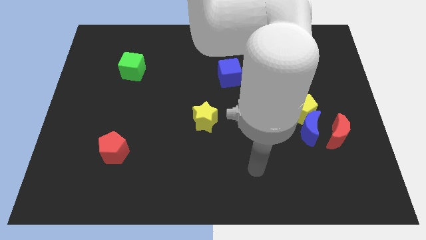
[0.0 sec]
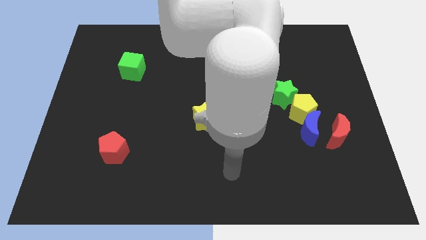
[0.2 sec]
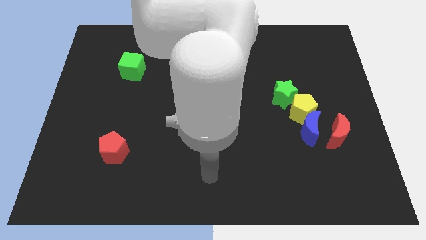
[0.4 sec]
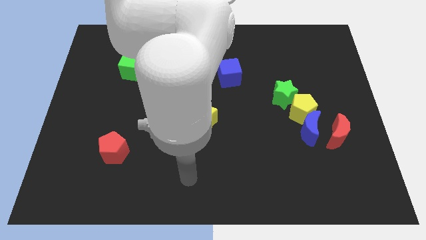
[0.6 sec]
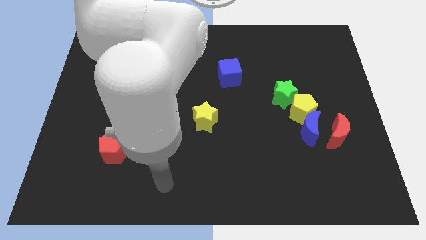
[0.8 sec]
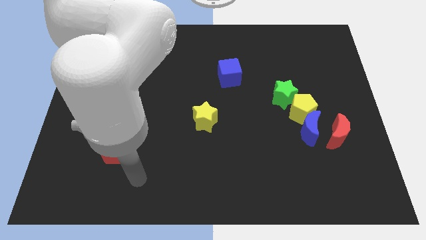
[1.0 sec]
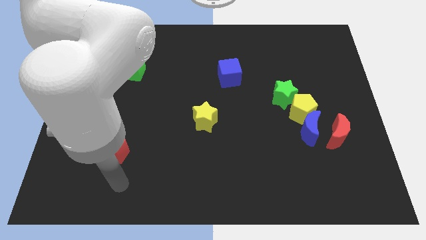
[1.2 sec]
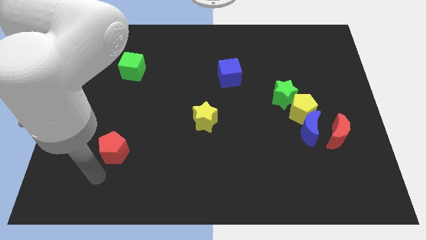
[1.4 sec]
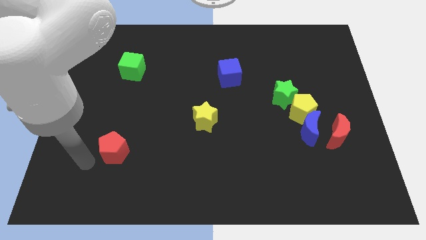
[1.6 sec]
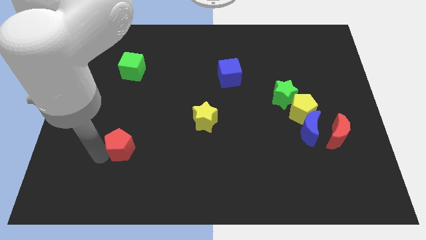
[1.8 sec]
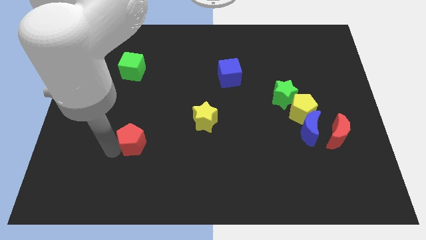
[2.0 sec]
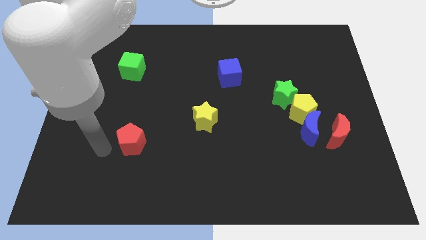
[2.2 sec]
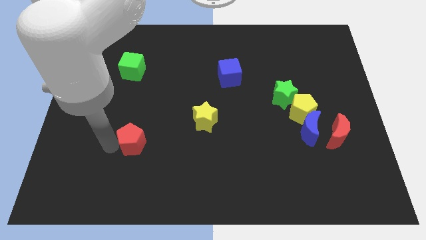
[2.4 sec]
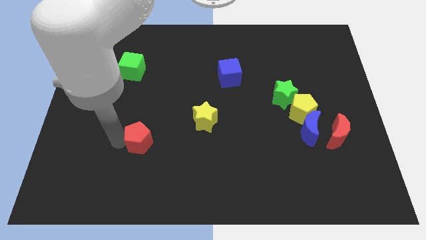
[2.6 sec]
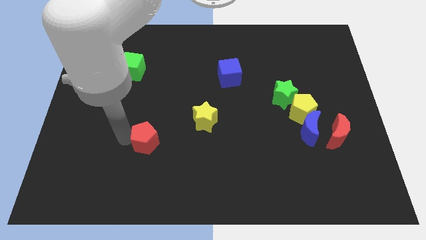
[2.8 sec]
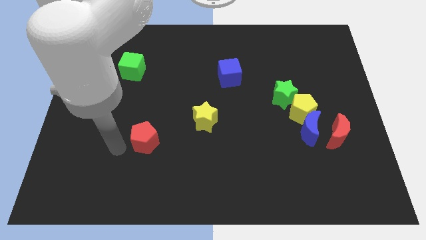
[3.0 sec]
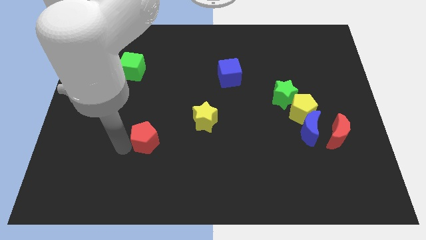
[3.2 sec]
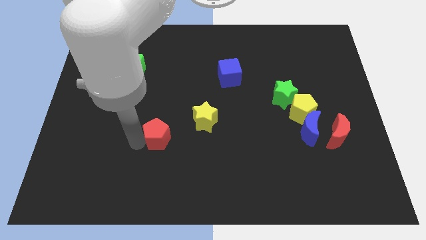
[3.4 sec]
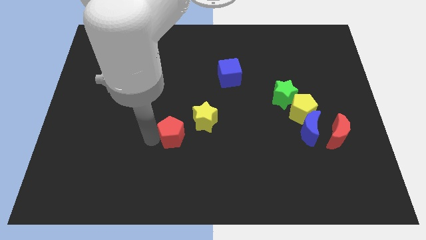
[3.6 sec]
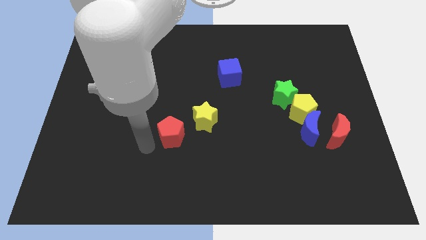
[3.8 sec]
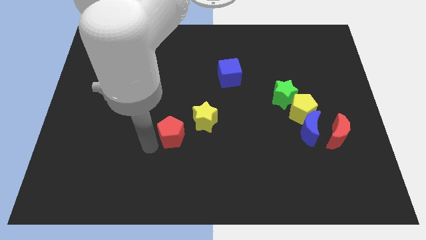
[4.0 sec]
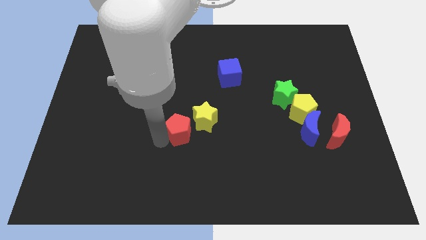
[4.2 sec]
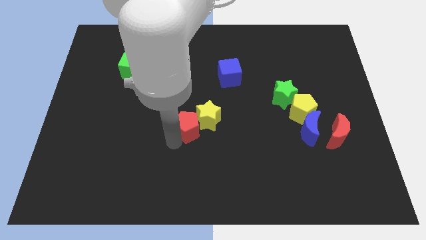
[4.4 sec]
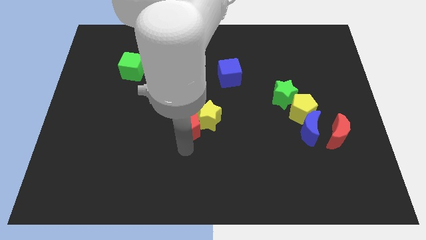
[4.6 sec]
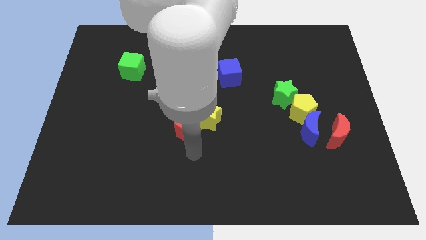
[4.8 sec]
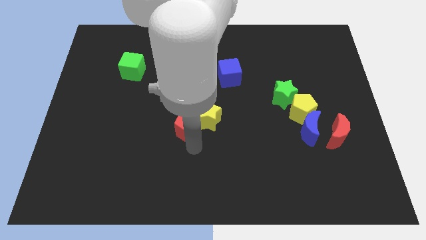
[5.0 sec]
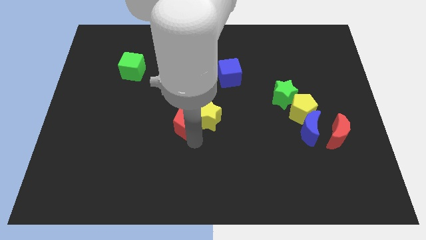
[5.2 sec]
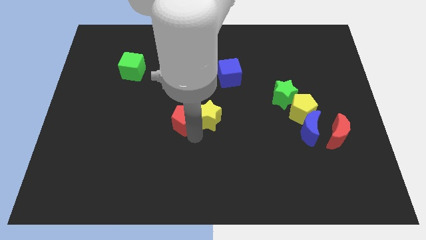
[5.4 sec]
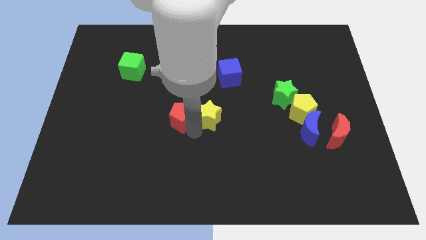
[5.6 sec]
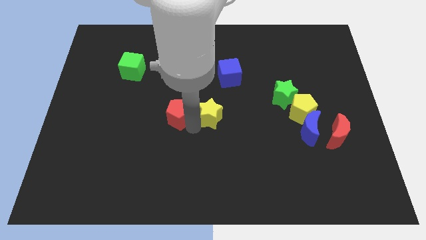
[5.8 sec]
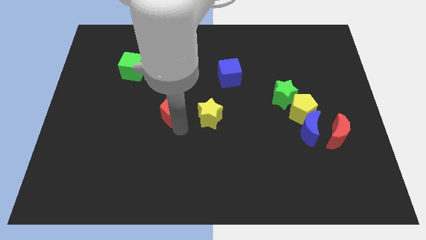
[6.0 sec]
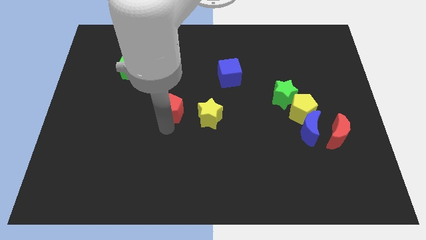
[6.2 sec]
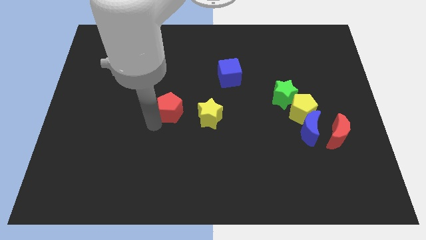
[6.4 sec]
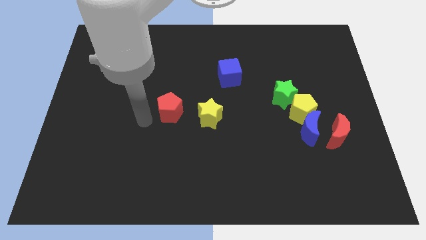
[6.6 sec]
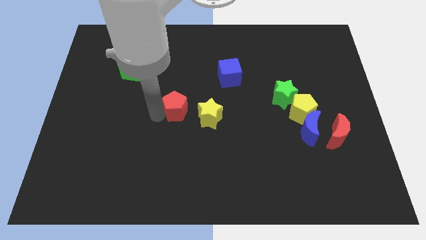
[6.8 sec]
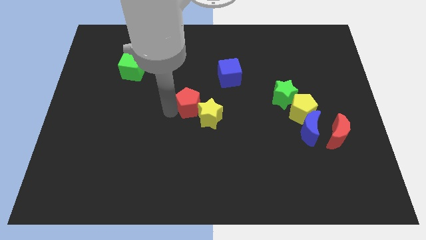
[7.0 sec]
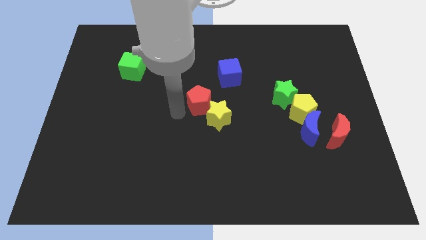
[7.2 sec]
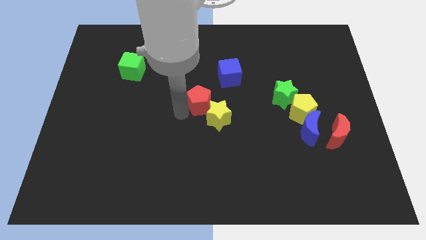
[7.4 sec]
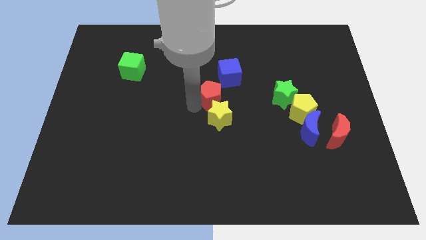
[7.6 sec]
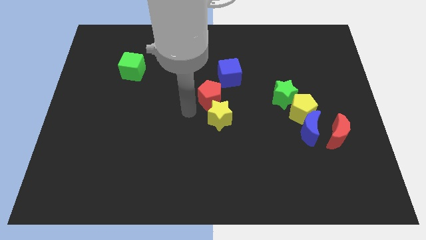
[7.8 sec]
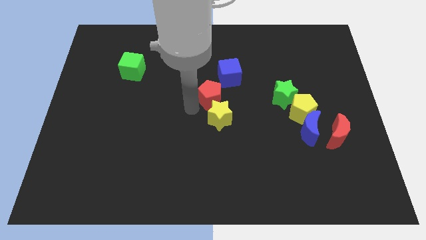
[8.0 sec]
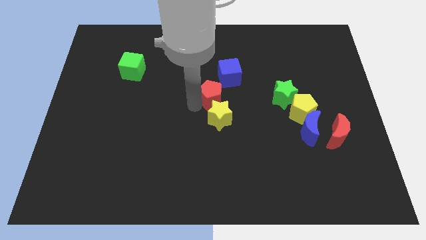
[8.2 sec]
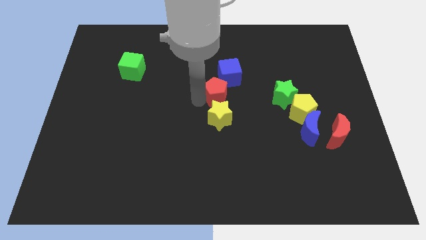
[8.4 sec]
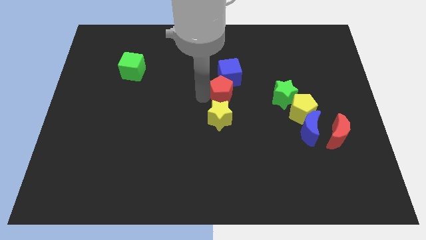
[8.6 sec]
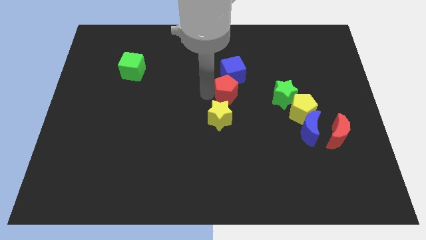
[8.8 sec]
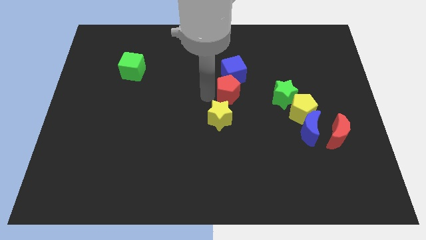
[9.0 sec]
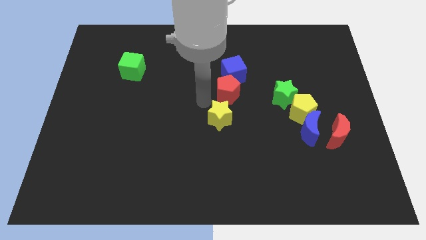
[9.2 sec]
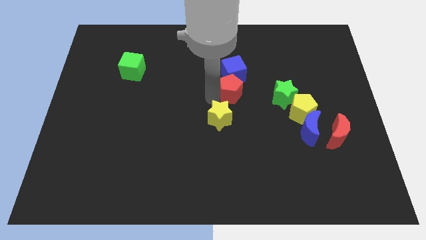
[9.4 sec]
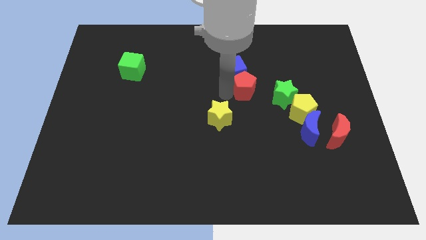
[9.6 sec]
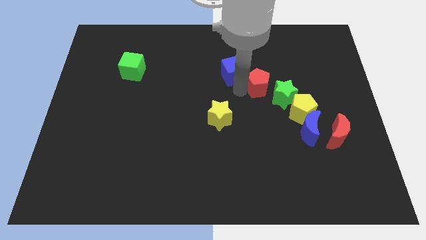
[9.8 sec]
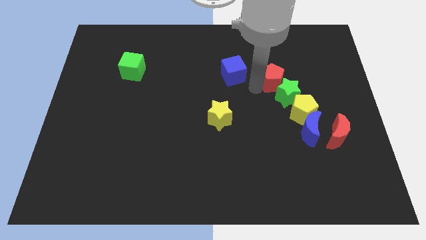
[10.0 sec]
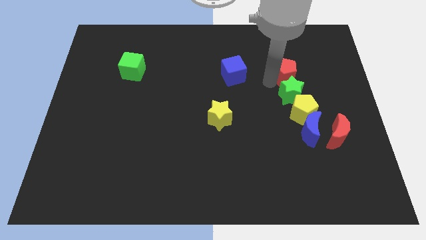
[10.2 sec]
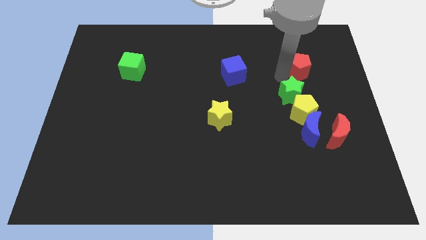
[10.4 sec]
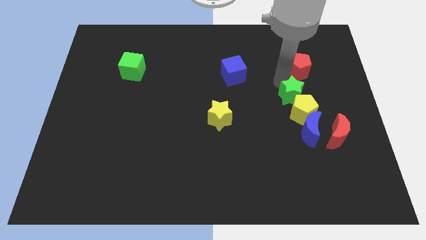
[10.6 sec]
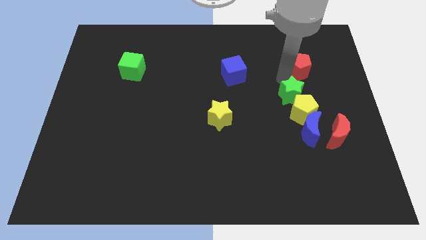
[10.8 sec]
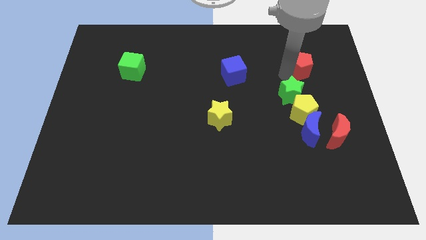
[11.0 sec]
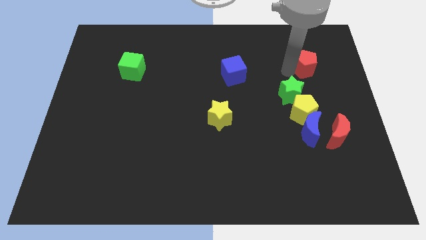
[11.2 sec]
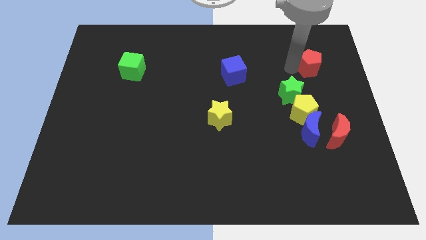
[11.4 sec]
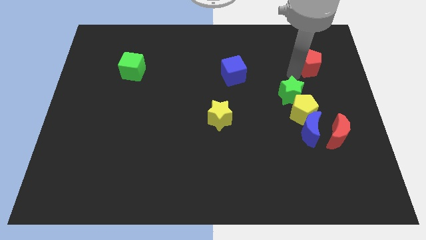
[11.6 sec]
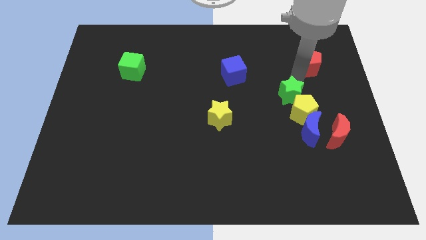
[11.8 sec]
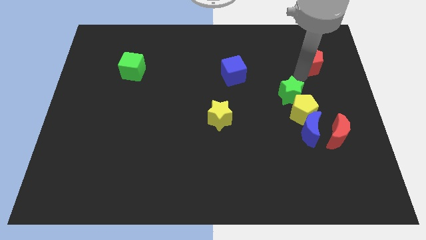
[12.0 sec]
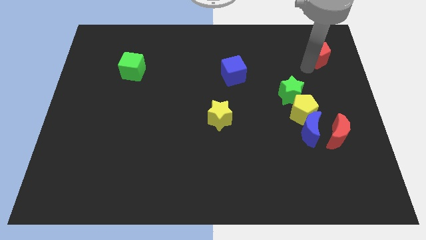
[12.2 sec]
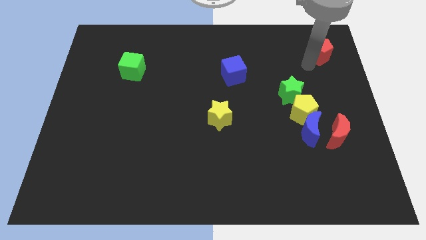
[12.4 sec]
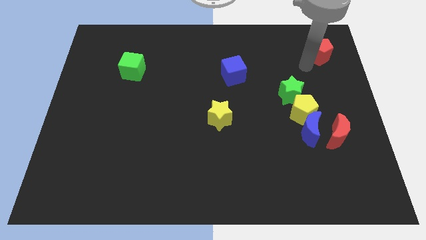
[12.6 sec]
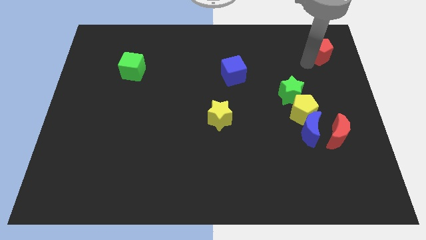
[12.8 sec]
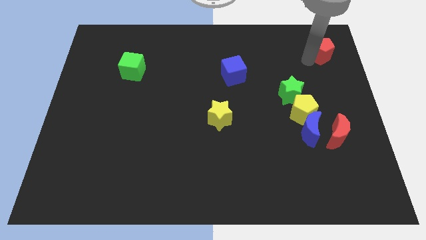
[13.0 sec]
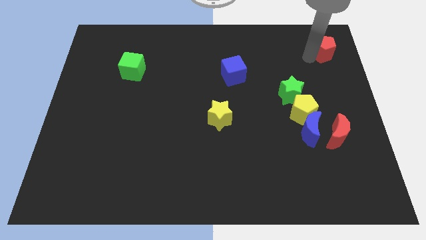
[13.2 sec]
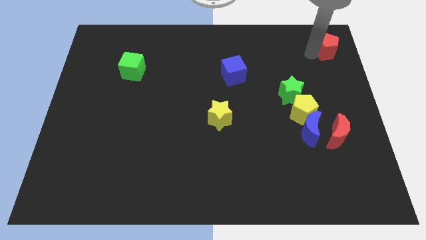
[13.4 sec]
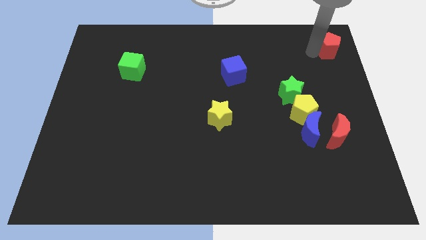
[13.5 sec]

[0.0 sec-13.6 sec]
slide the red pentagon to the top right of the board

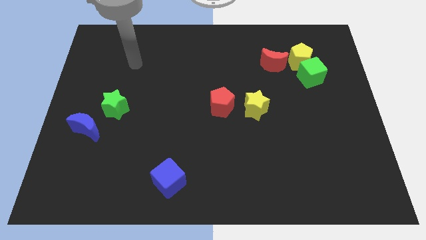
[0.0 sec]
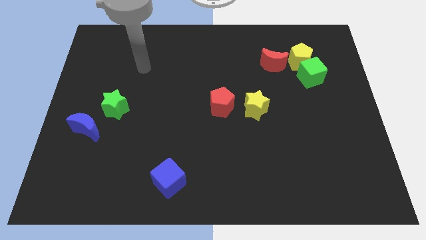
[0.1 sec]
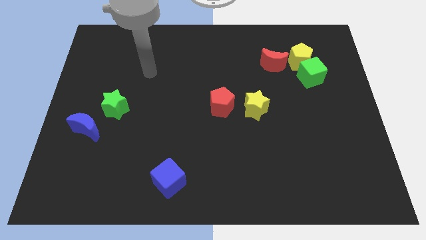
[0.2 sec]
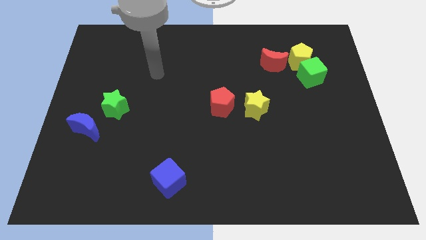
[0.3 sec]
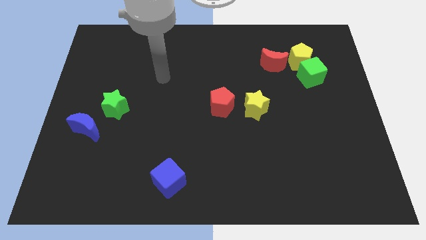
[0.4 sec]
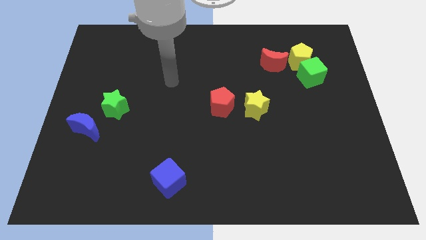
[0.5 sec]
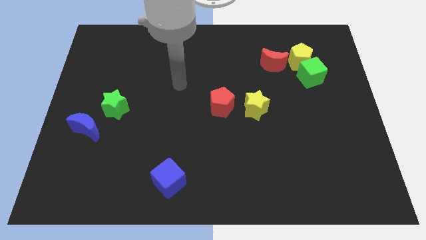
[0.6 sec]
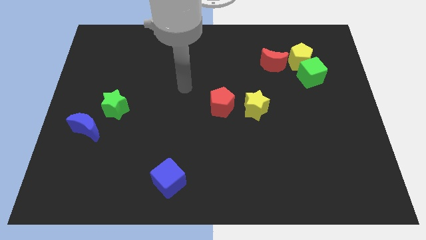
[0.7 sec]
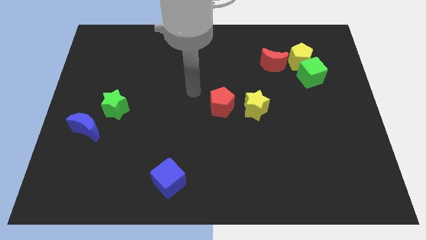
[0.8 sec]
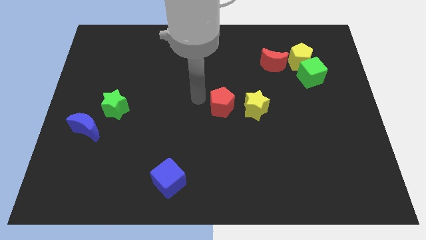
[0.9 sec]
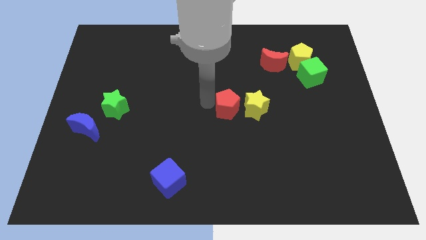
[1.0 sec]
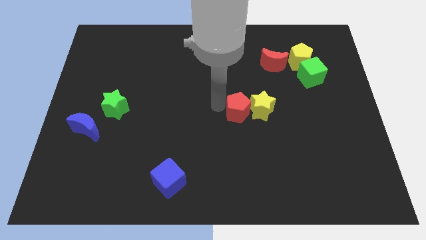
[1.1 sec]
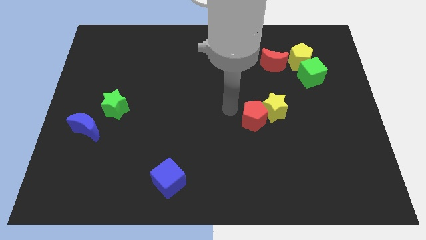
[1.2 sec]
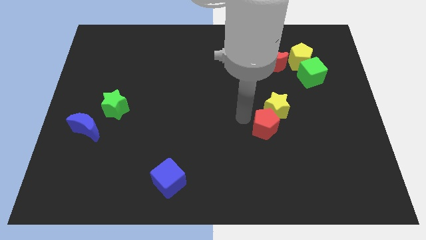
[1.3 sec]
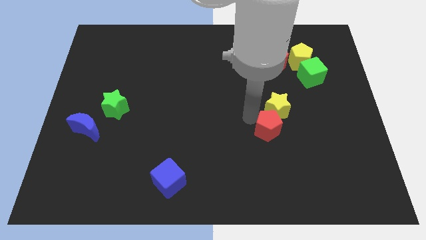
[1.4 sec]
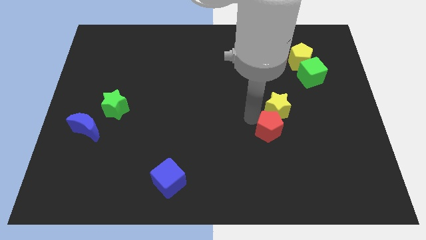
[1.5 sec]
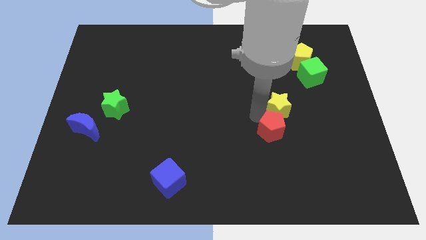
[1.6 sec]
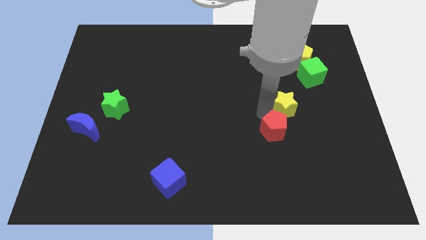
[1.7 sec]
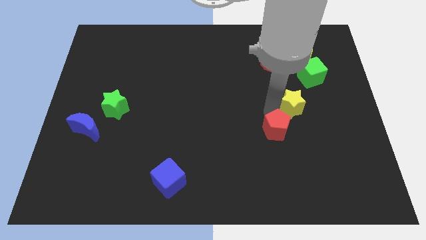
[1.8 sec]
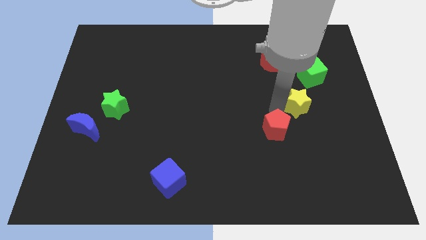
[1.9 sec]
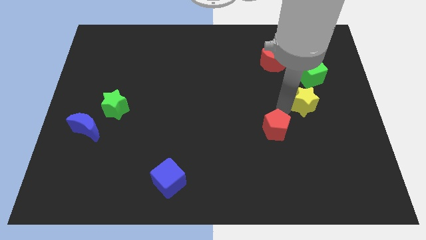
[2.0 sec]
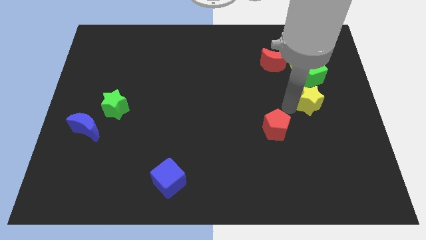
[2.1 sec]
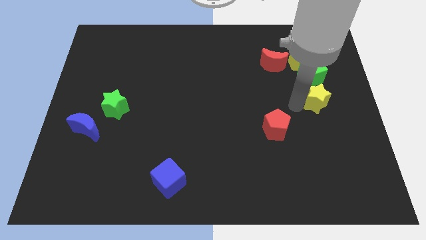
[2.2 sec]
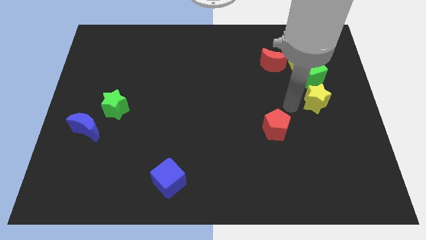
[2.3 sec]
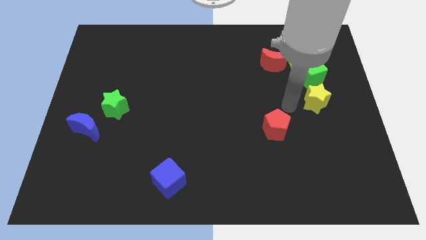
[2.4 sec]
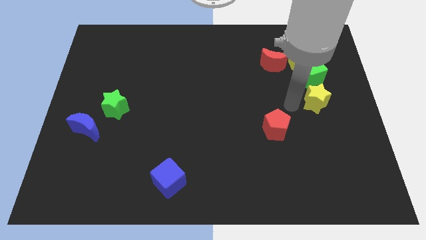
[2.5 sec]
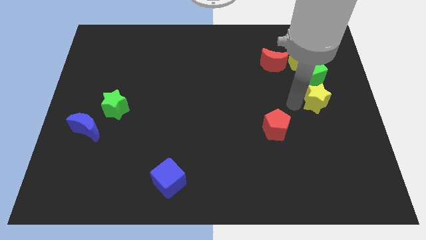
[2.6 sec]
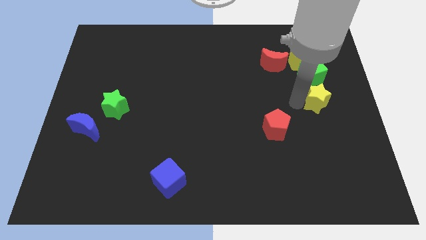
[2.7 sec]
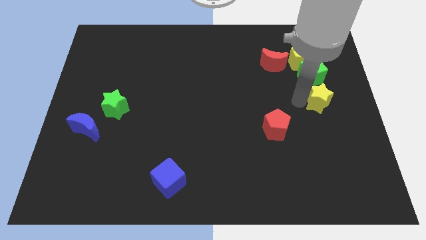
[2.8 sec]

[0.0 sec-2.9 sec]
put the yellow star to the center right
